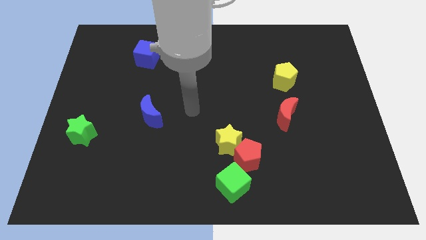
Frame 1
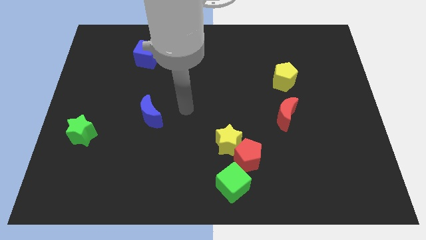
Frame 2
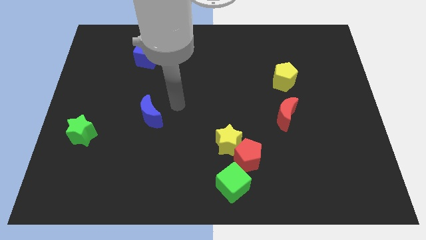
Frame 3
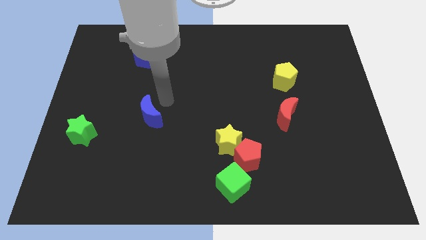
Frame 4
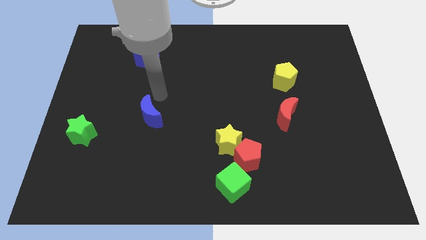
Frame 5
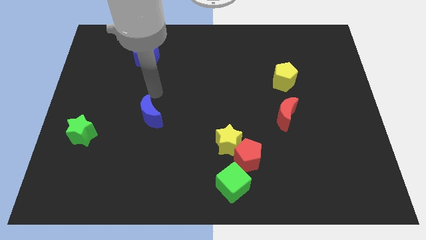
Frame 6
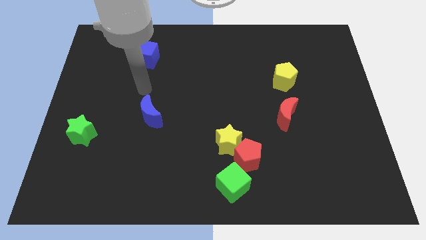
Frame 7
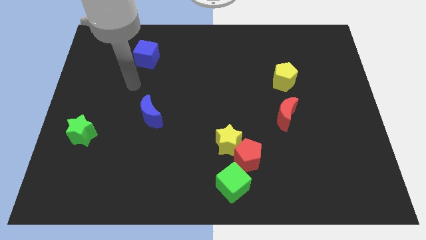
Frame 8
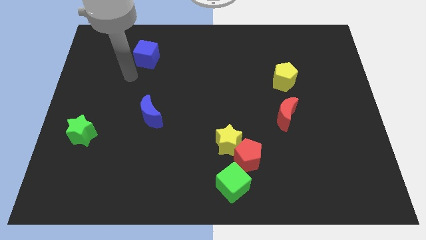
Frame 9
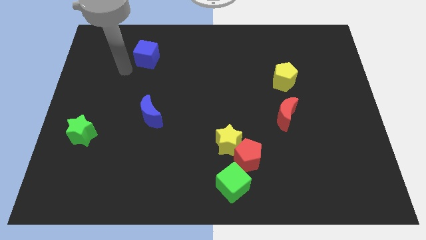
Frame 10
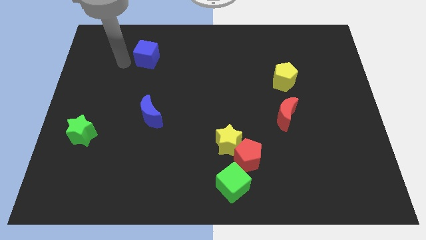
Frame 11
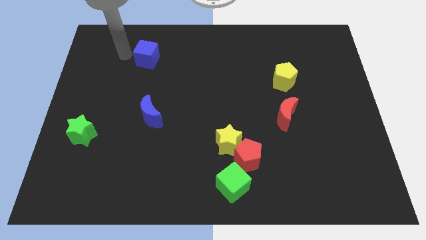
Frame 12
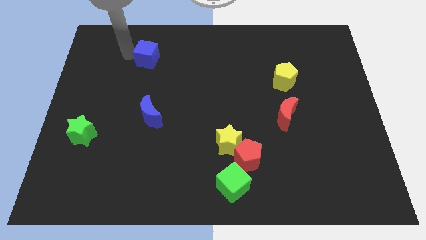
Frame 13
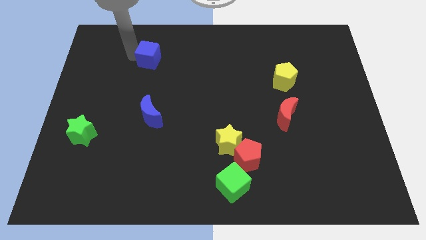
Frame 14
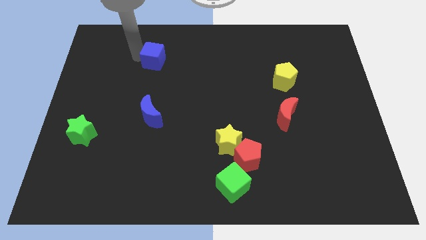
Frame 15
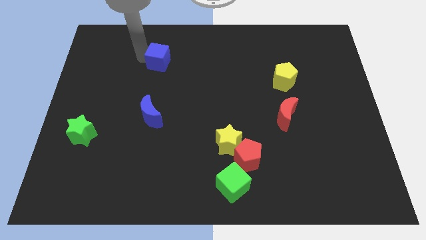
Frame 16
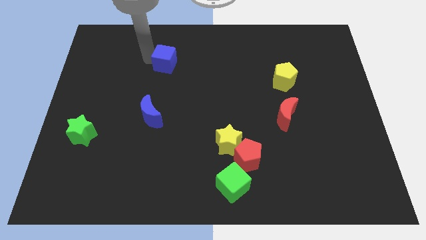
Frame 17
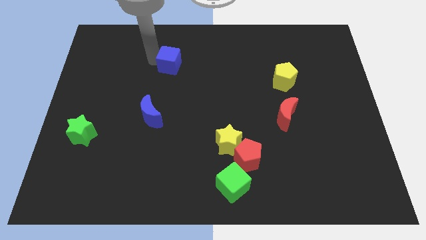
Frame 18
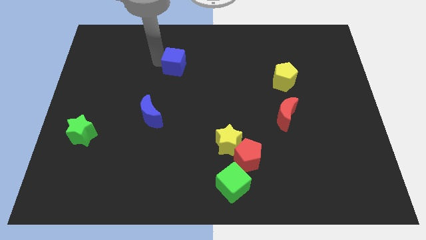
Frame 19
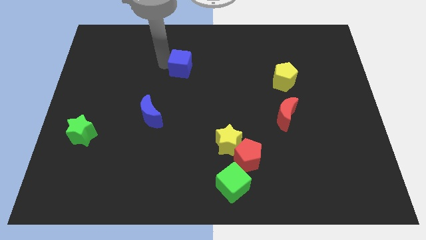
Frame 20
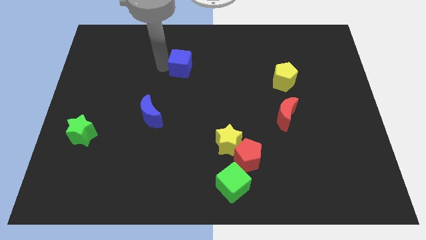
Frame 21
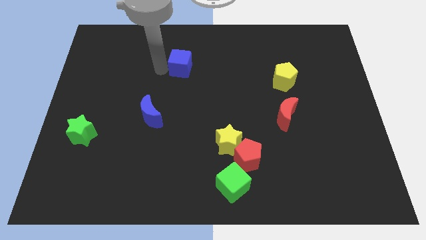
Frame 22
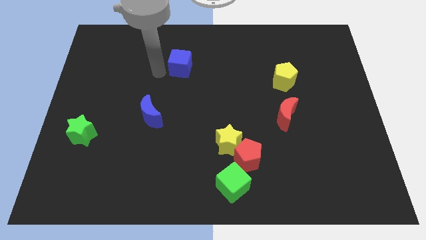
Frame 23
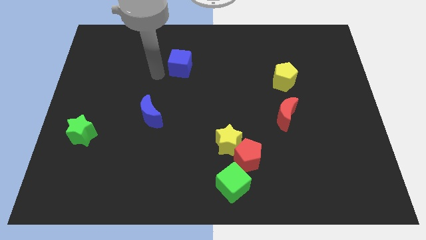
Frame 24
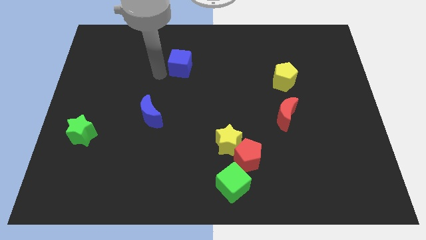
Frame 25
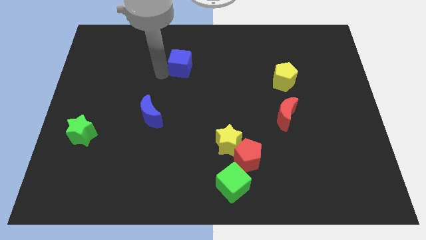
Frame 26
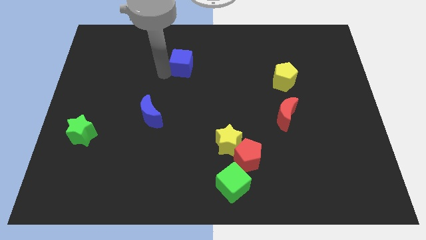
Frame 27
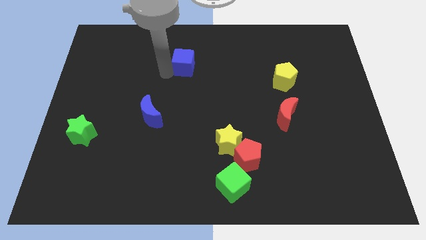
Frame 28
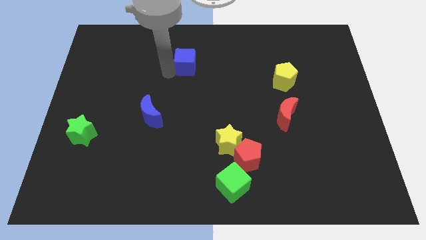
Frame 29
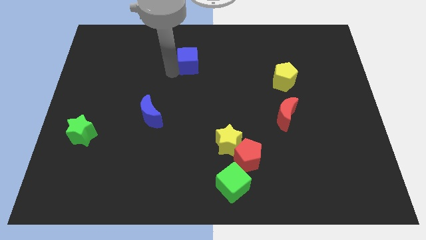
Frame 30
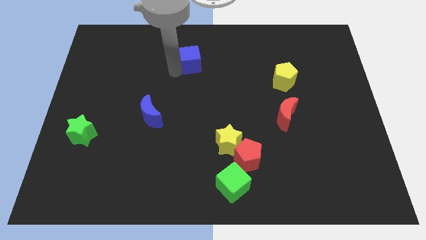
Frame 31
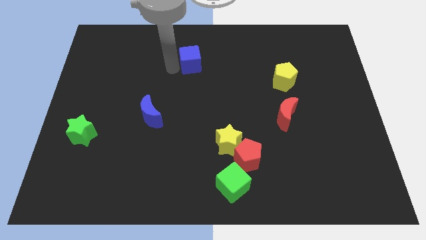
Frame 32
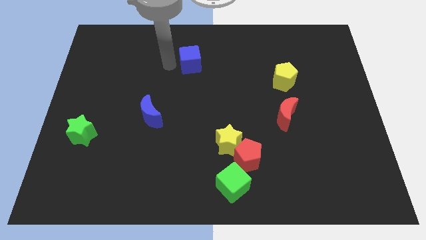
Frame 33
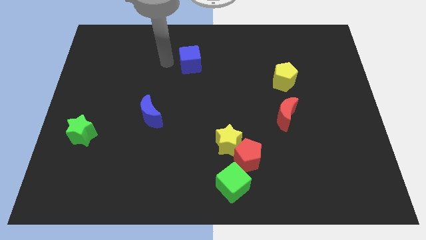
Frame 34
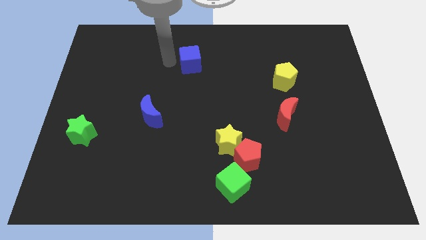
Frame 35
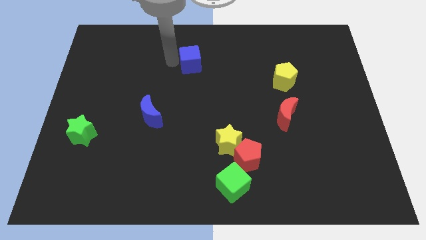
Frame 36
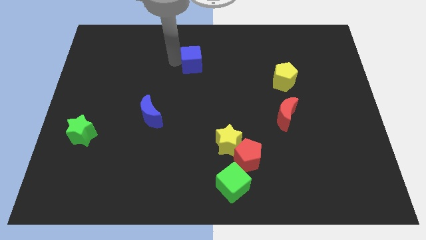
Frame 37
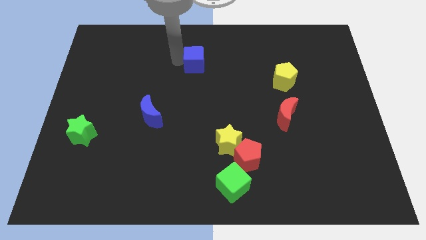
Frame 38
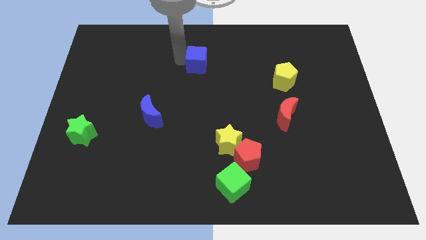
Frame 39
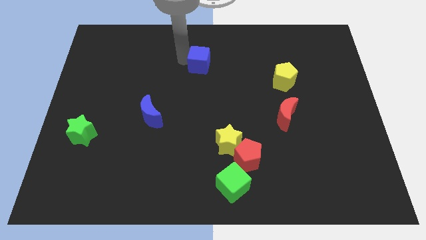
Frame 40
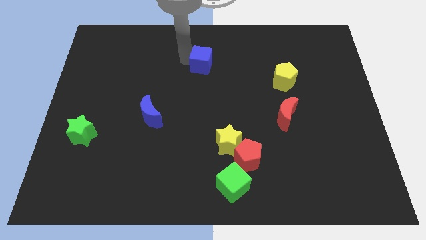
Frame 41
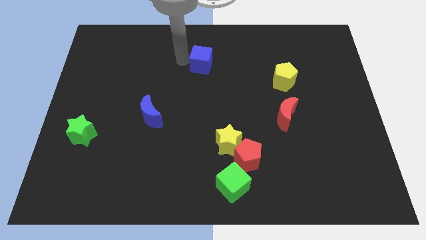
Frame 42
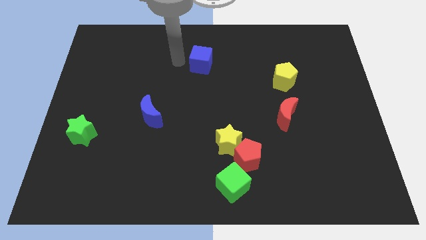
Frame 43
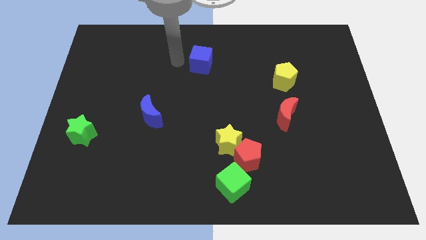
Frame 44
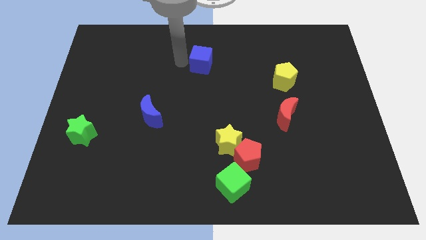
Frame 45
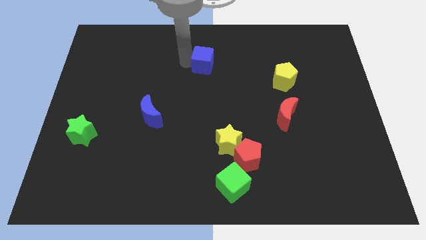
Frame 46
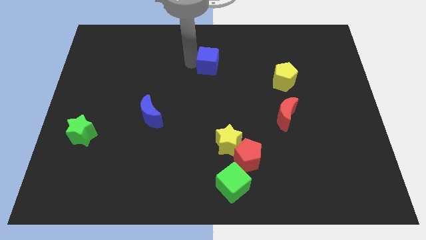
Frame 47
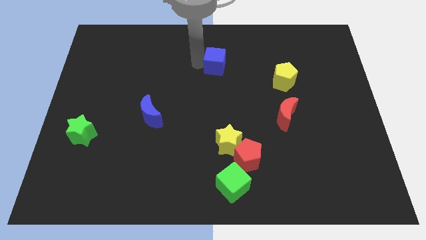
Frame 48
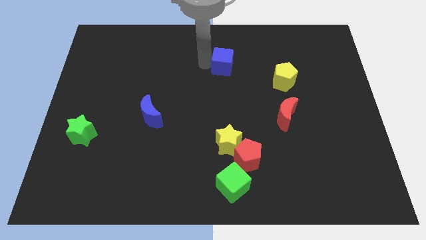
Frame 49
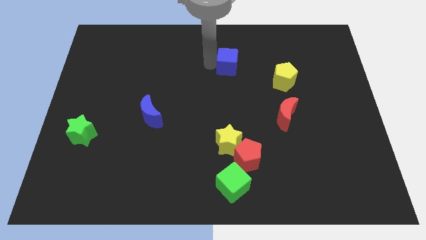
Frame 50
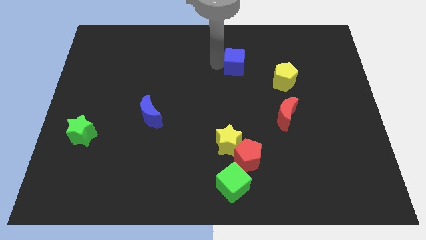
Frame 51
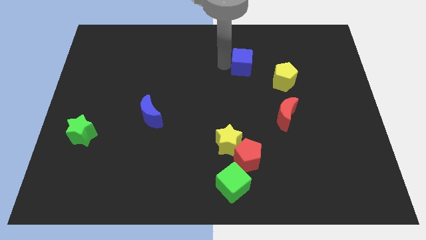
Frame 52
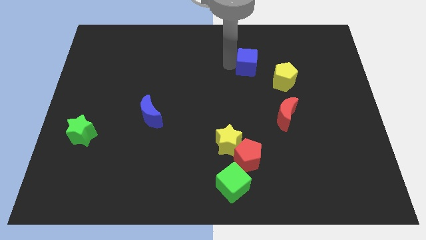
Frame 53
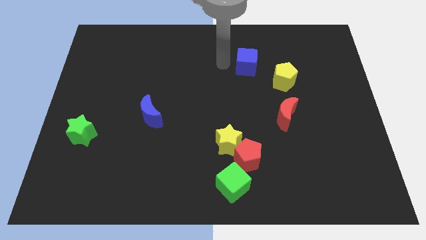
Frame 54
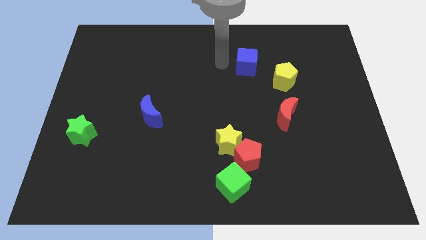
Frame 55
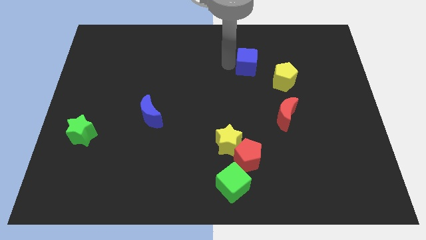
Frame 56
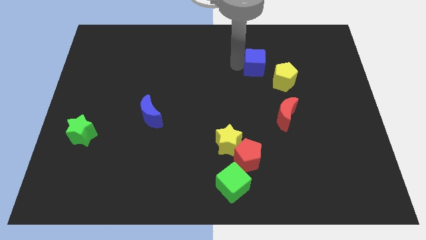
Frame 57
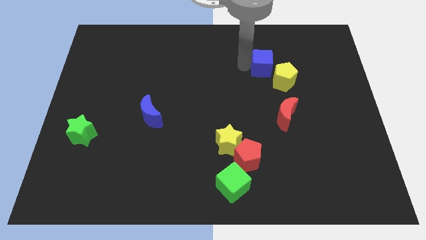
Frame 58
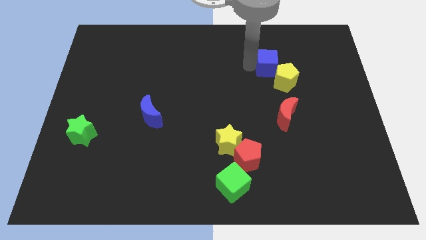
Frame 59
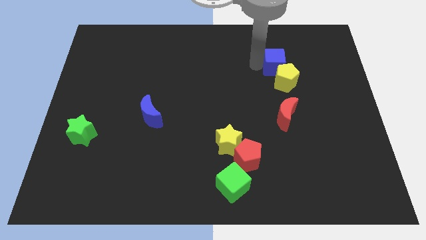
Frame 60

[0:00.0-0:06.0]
push the blue cube to the top of the red moon

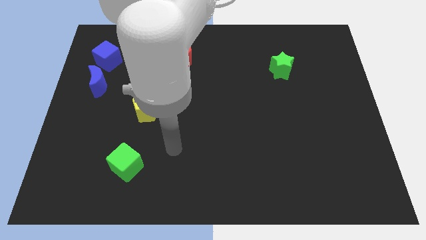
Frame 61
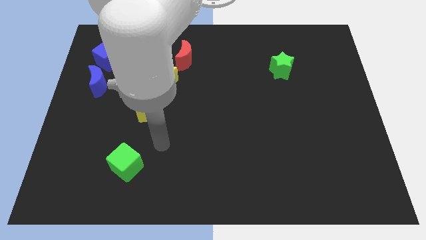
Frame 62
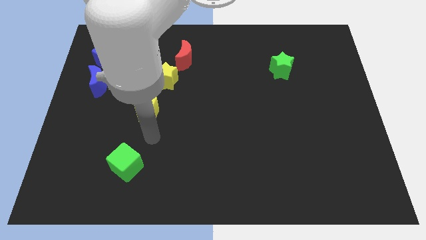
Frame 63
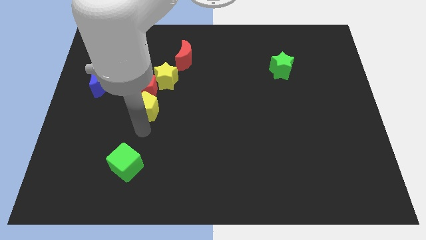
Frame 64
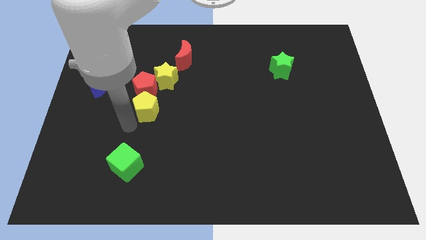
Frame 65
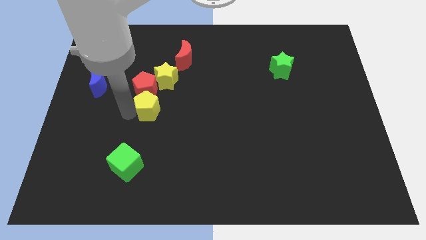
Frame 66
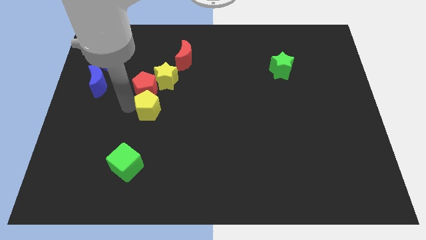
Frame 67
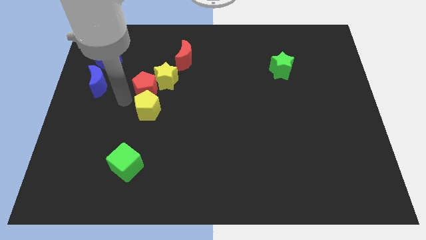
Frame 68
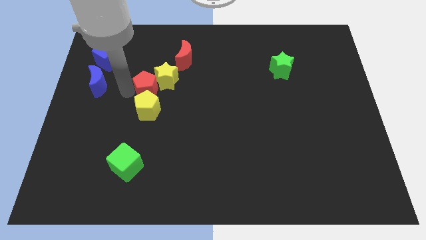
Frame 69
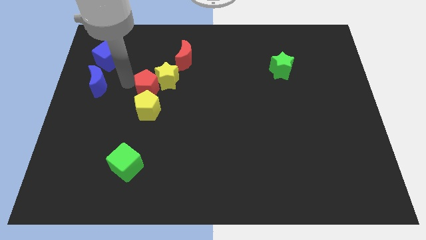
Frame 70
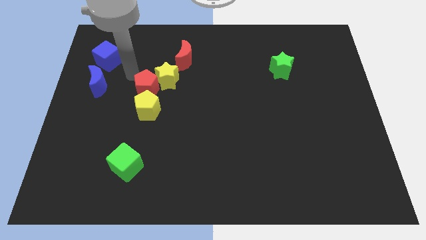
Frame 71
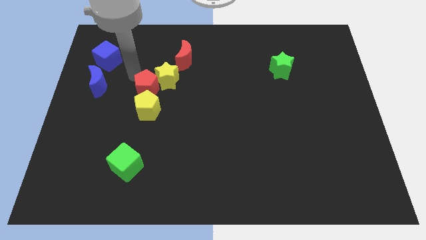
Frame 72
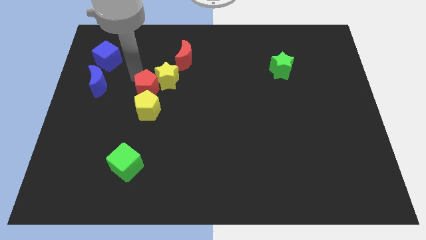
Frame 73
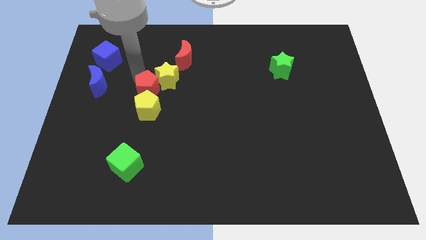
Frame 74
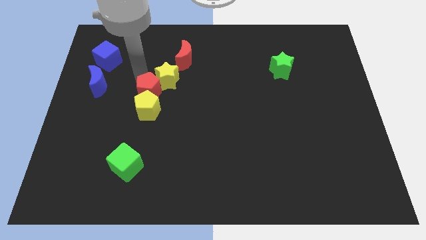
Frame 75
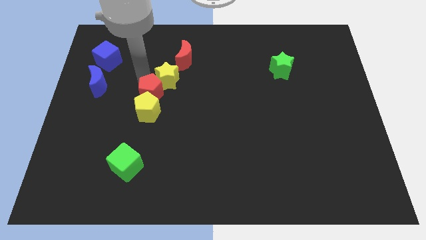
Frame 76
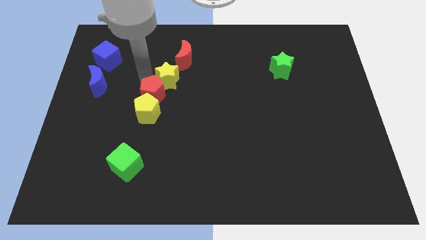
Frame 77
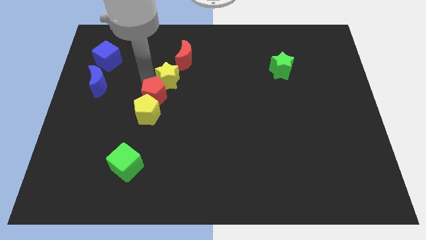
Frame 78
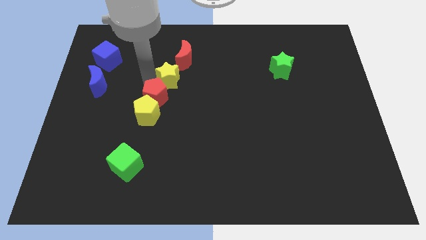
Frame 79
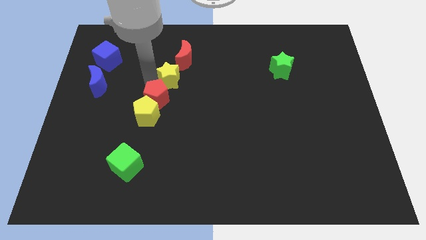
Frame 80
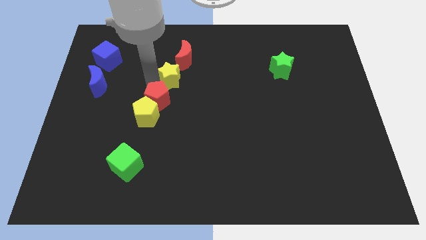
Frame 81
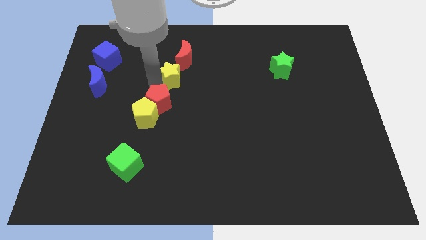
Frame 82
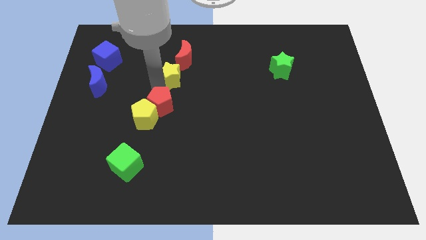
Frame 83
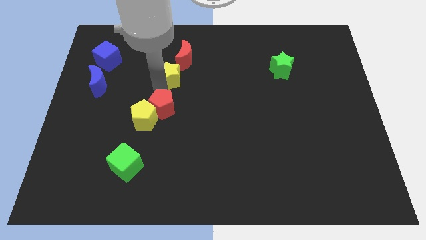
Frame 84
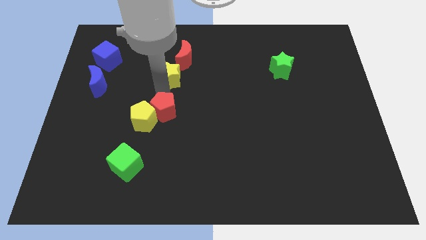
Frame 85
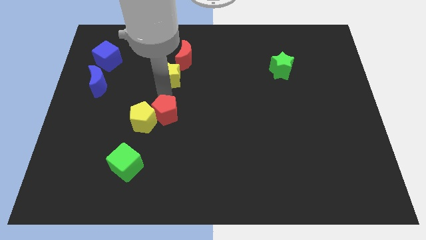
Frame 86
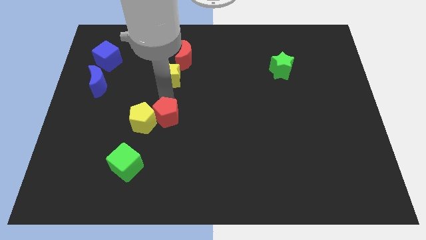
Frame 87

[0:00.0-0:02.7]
put the red pentagon to the bottom right of the yellow pentagon
